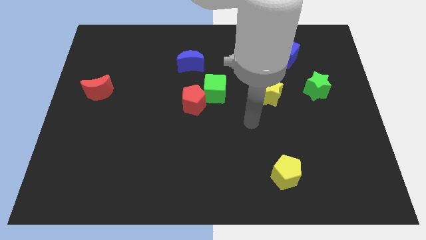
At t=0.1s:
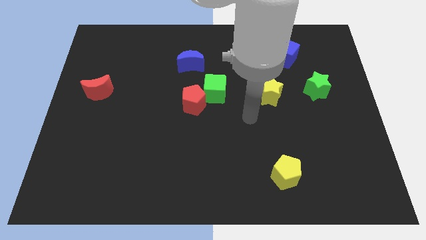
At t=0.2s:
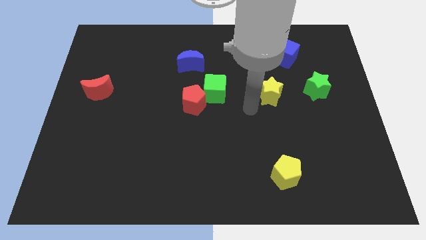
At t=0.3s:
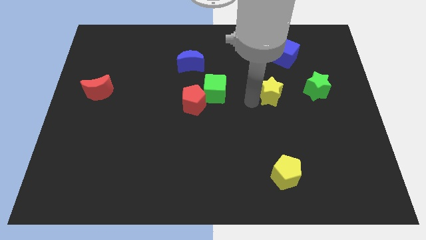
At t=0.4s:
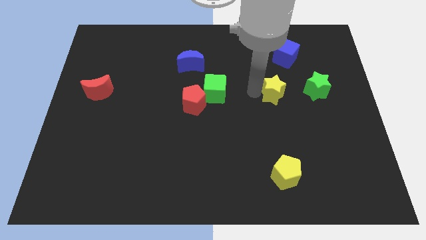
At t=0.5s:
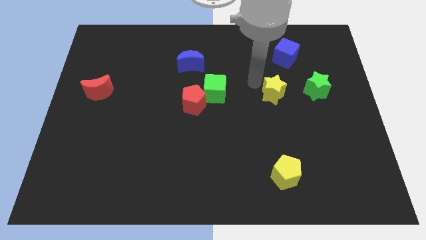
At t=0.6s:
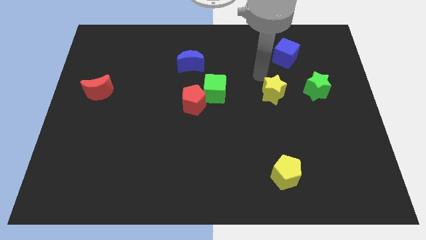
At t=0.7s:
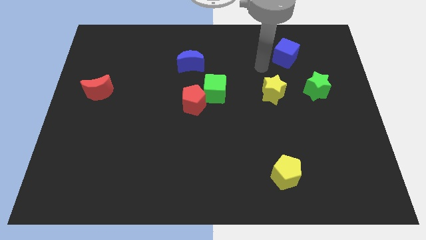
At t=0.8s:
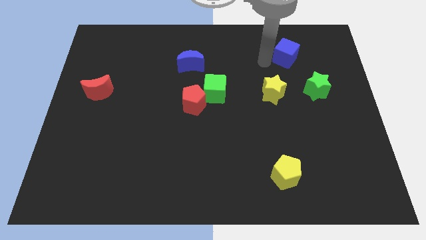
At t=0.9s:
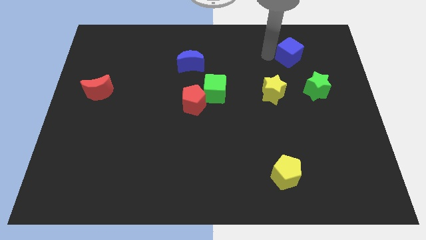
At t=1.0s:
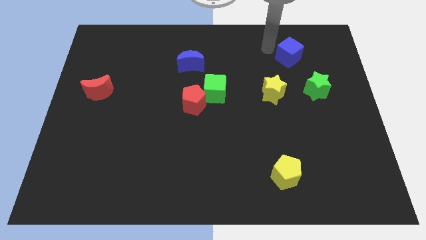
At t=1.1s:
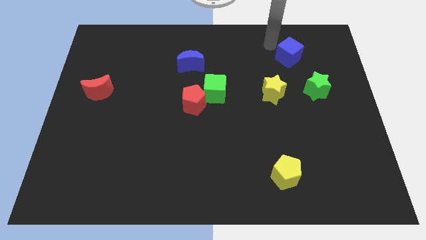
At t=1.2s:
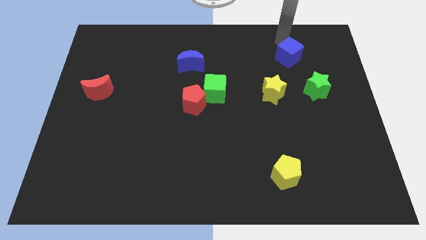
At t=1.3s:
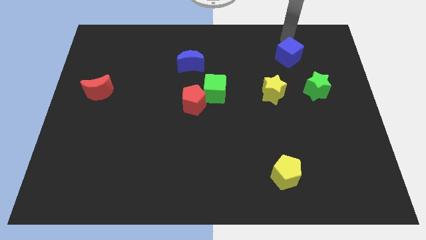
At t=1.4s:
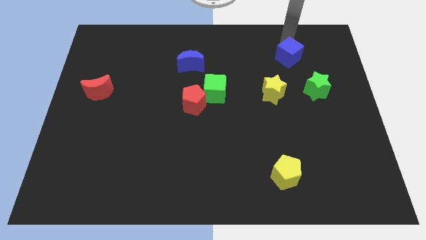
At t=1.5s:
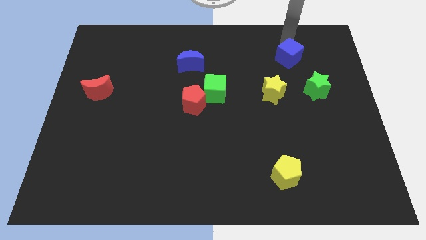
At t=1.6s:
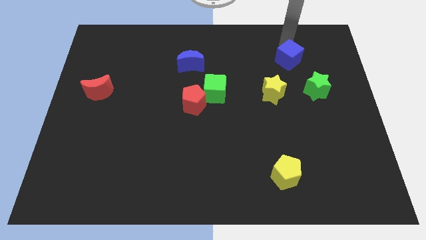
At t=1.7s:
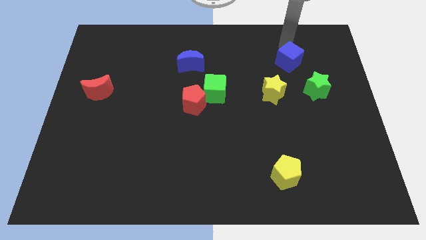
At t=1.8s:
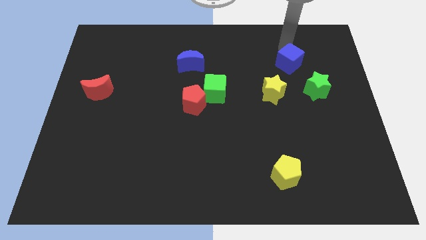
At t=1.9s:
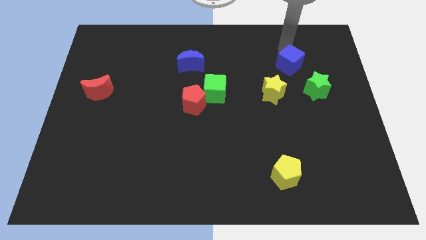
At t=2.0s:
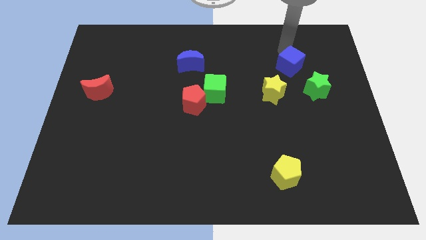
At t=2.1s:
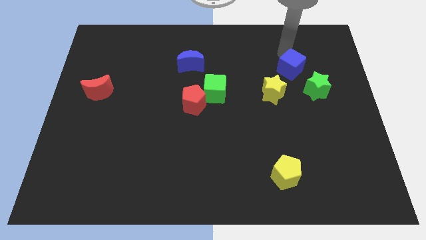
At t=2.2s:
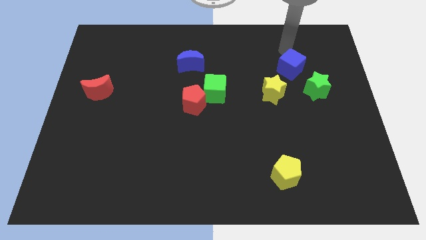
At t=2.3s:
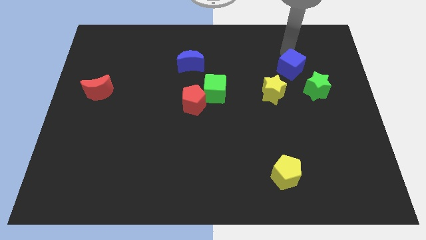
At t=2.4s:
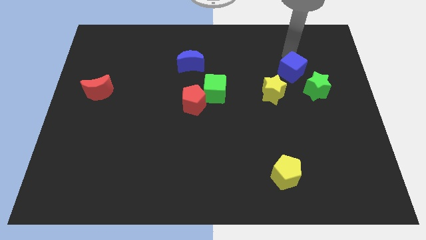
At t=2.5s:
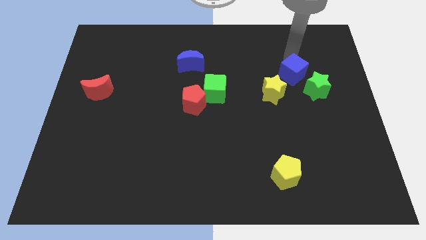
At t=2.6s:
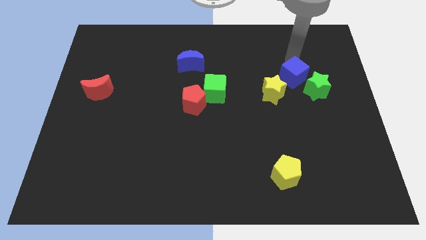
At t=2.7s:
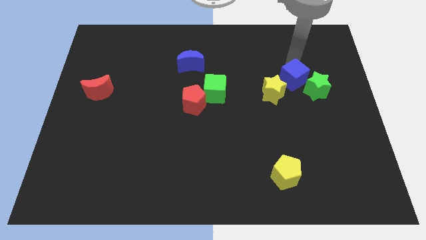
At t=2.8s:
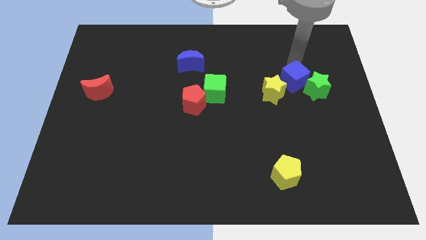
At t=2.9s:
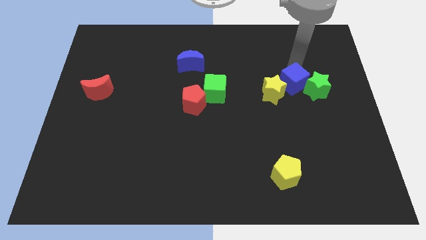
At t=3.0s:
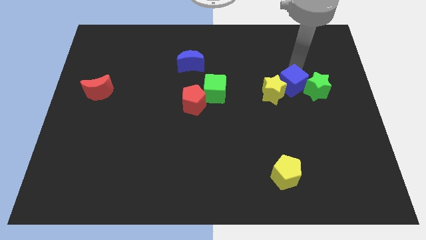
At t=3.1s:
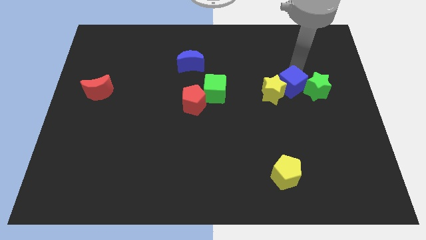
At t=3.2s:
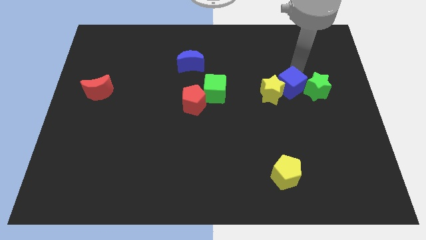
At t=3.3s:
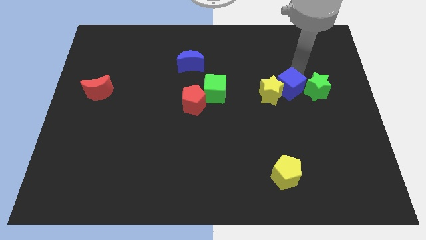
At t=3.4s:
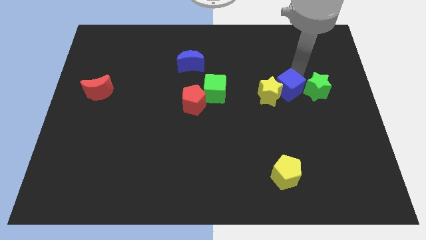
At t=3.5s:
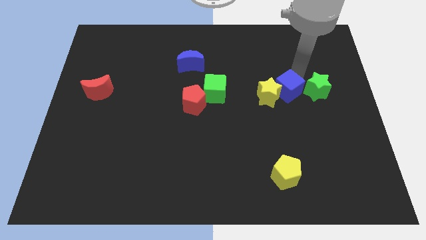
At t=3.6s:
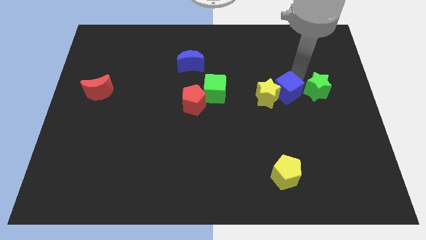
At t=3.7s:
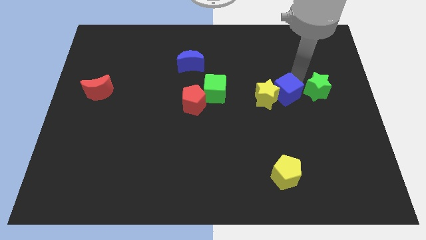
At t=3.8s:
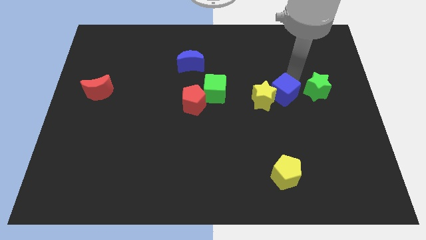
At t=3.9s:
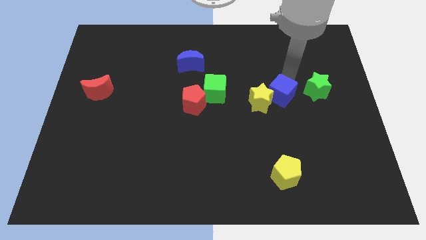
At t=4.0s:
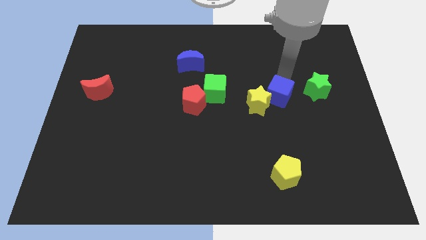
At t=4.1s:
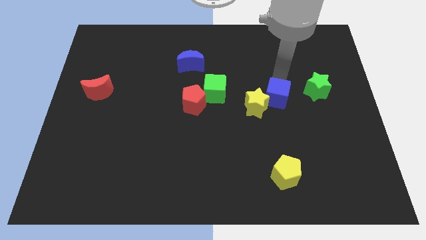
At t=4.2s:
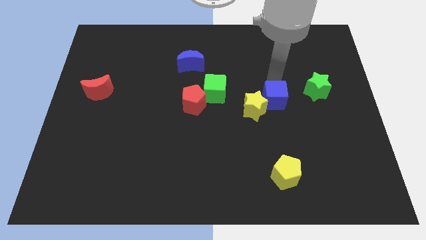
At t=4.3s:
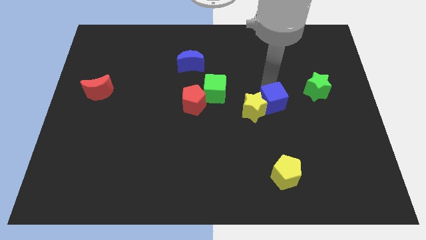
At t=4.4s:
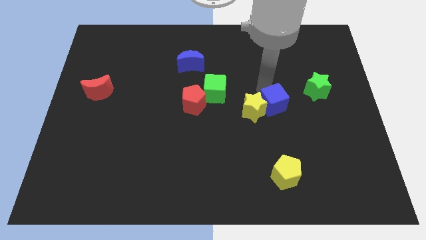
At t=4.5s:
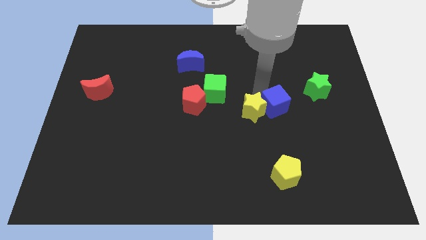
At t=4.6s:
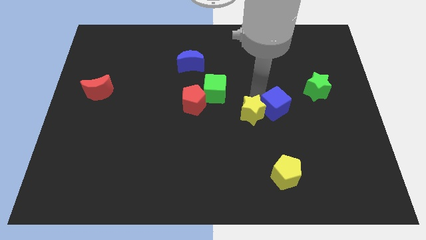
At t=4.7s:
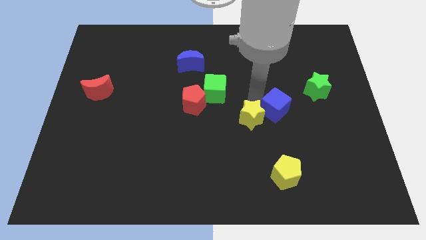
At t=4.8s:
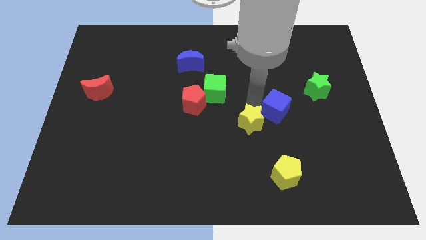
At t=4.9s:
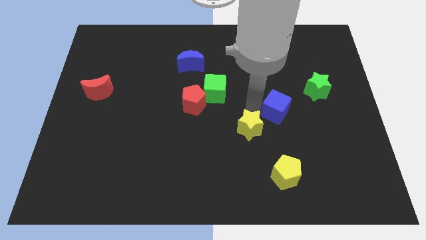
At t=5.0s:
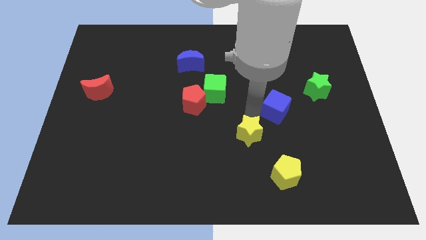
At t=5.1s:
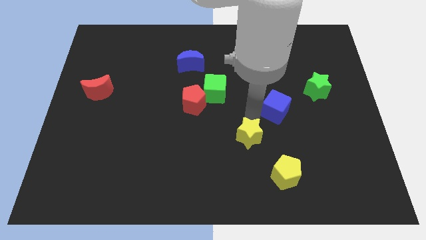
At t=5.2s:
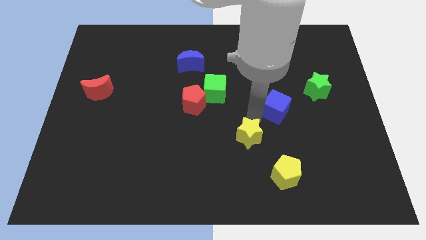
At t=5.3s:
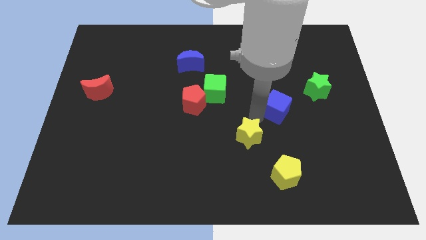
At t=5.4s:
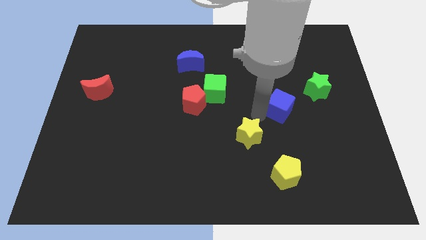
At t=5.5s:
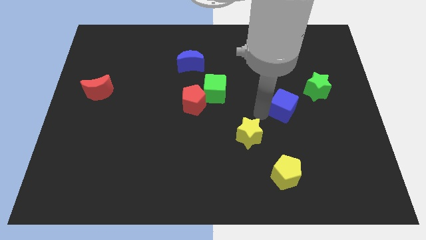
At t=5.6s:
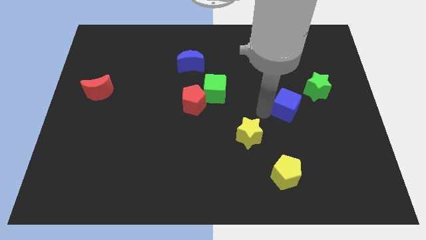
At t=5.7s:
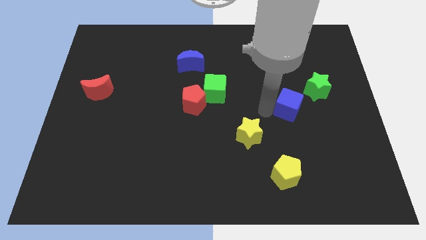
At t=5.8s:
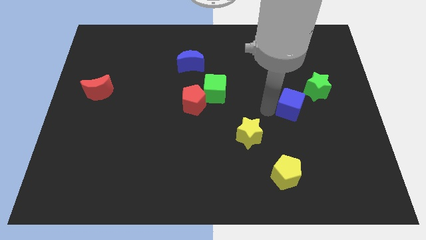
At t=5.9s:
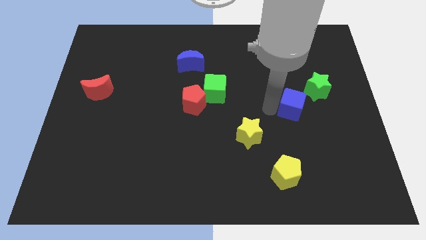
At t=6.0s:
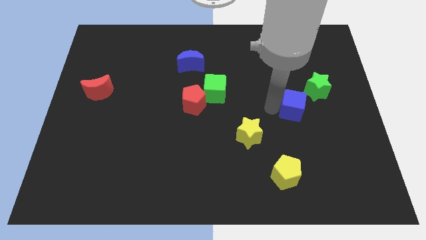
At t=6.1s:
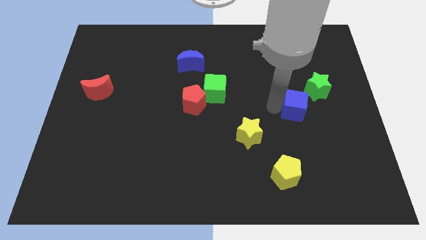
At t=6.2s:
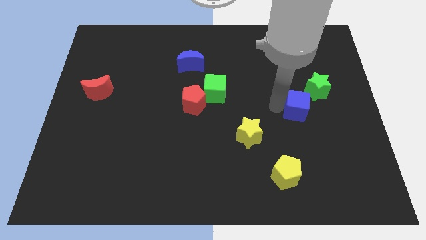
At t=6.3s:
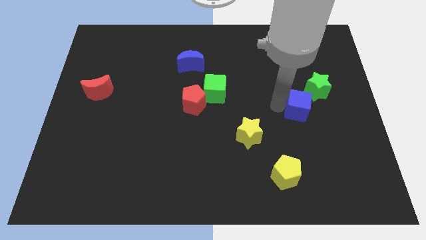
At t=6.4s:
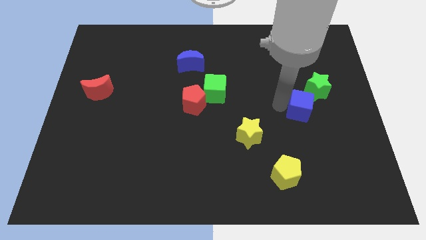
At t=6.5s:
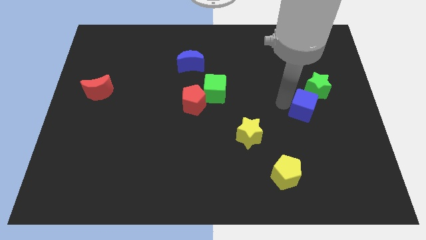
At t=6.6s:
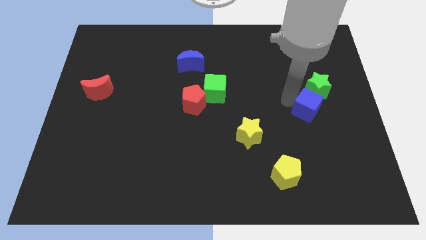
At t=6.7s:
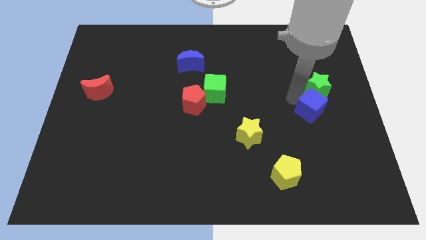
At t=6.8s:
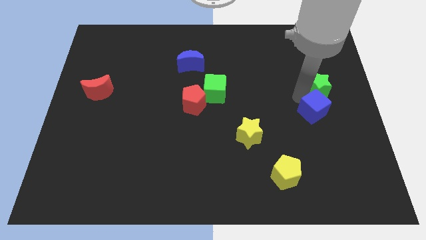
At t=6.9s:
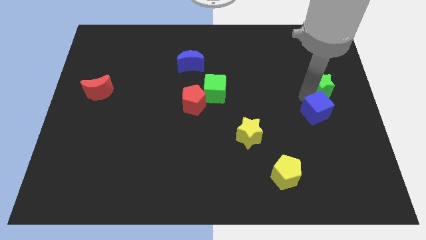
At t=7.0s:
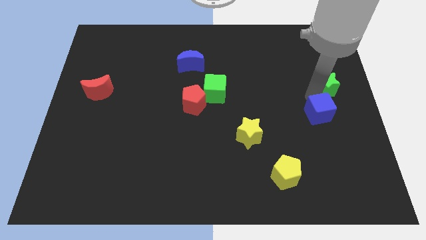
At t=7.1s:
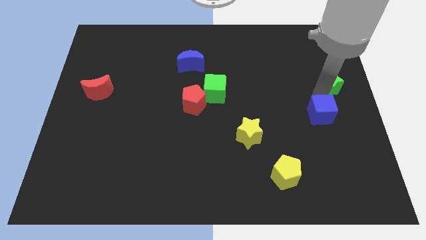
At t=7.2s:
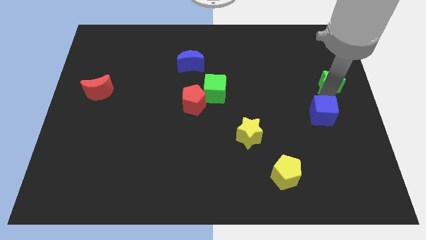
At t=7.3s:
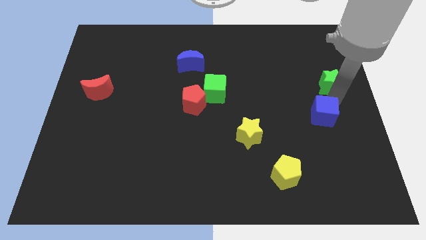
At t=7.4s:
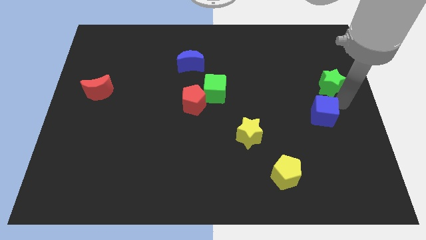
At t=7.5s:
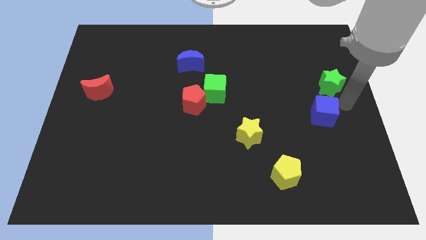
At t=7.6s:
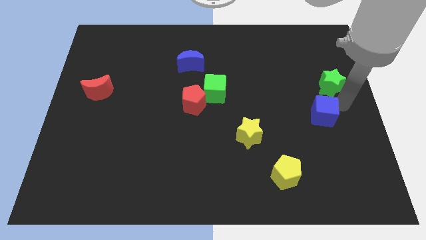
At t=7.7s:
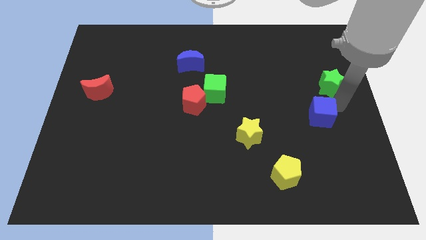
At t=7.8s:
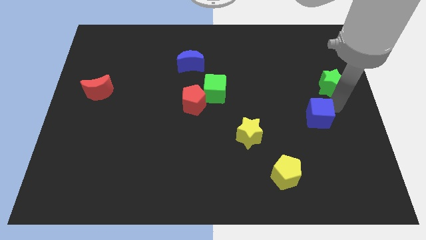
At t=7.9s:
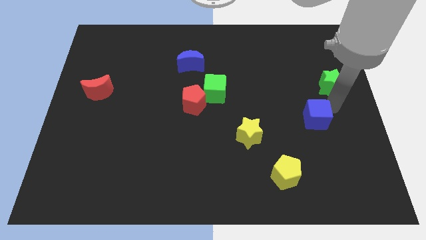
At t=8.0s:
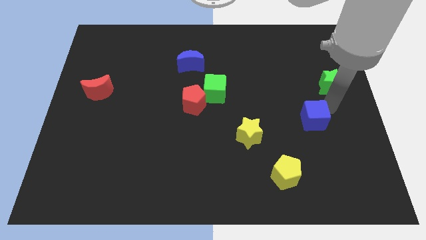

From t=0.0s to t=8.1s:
slide the blue cube down

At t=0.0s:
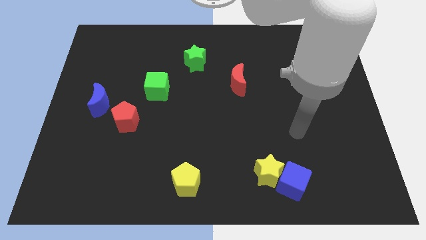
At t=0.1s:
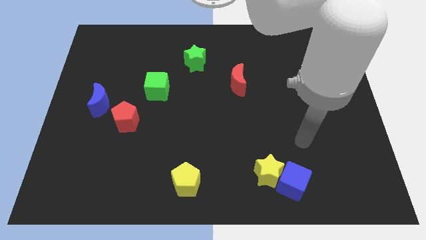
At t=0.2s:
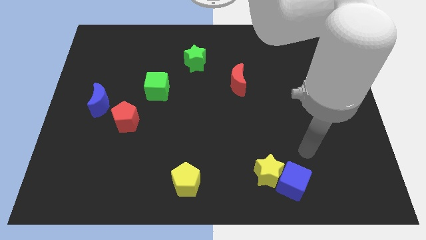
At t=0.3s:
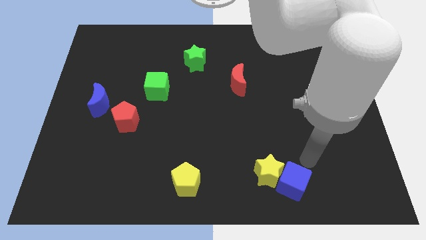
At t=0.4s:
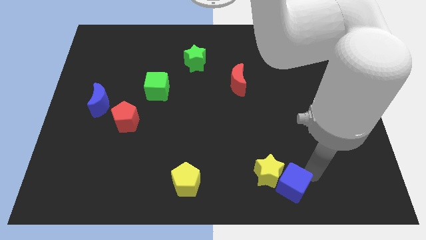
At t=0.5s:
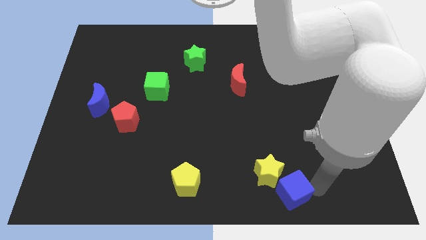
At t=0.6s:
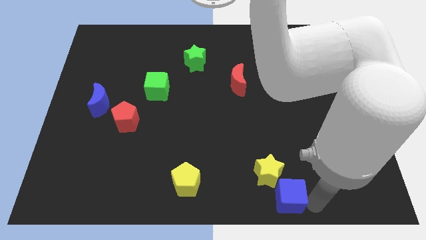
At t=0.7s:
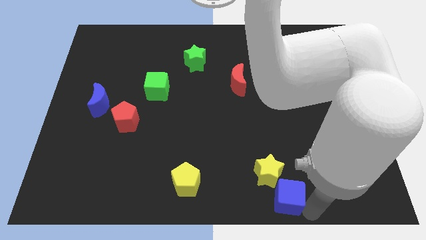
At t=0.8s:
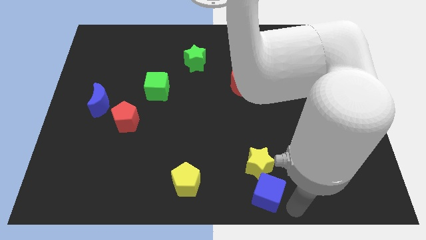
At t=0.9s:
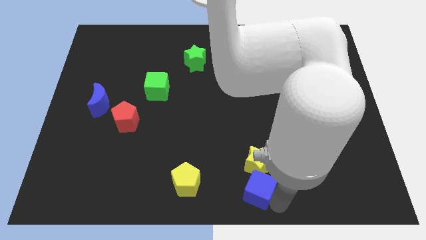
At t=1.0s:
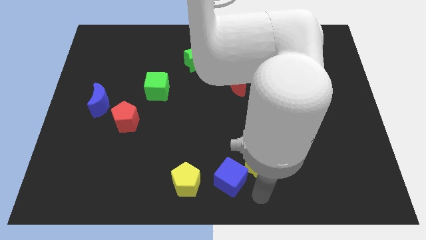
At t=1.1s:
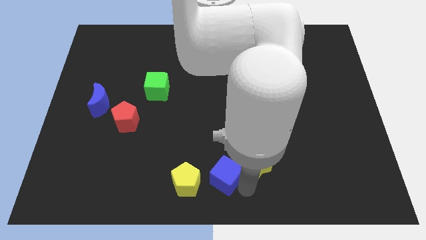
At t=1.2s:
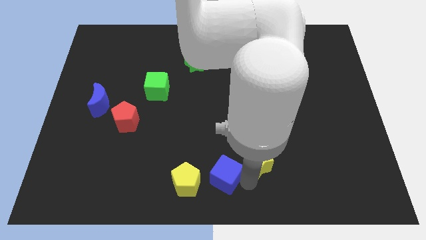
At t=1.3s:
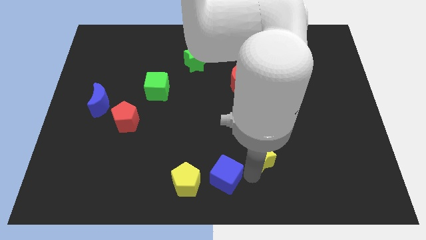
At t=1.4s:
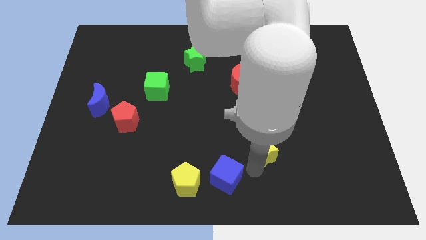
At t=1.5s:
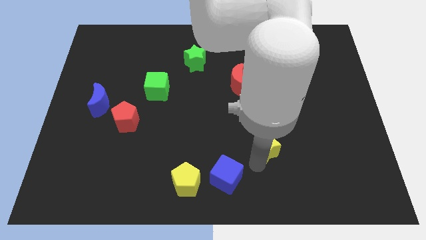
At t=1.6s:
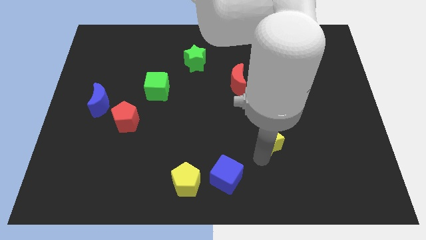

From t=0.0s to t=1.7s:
move the yellow star upwards a bit
